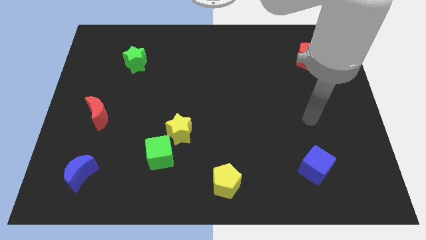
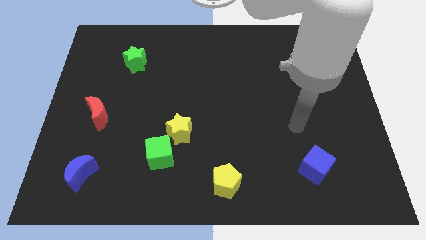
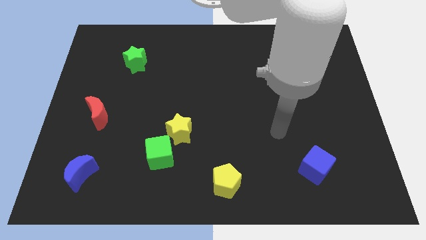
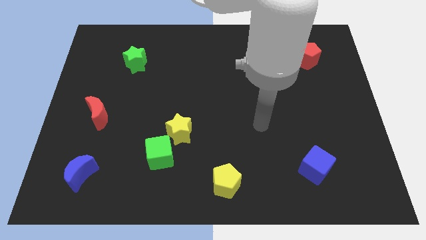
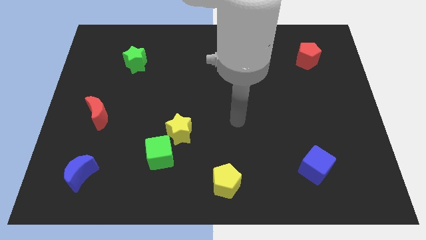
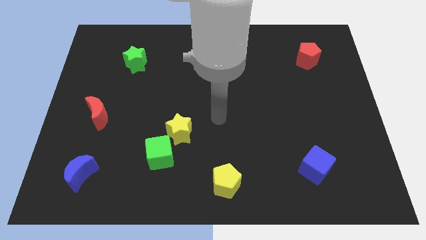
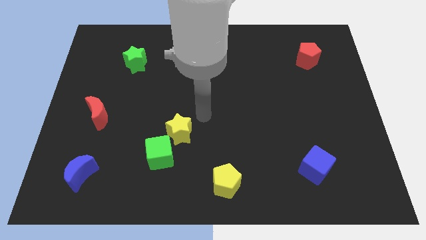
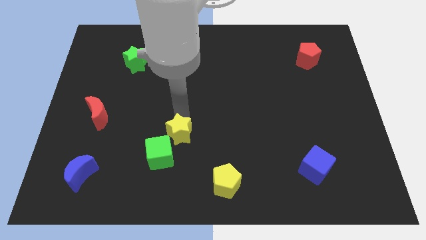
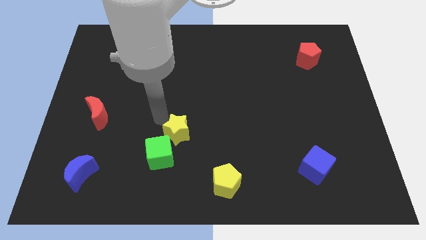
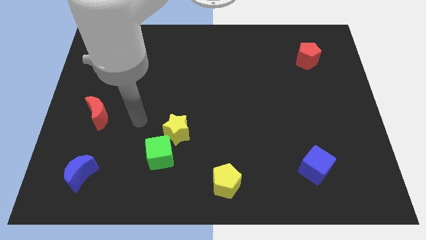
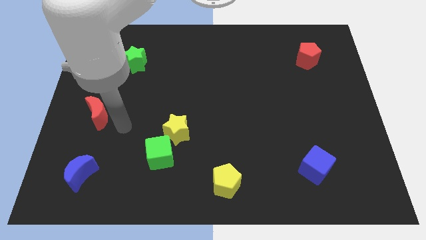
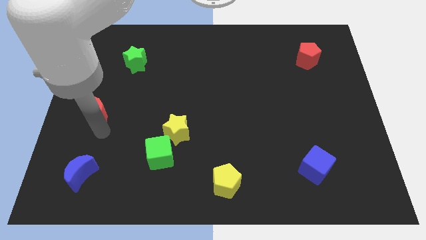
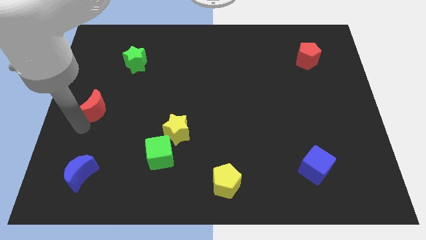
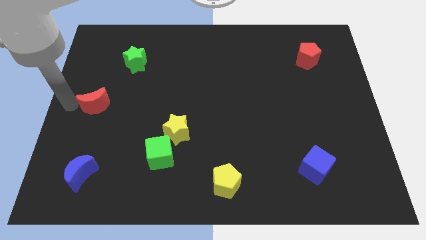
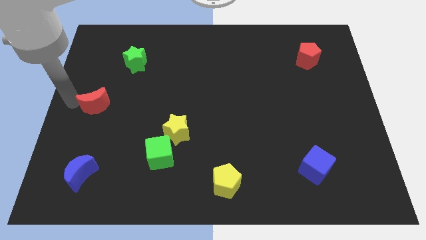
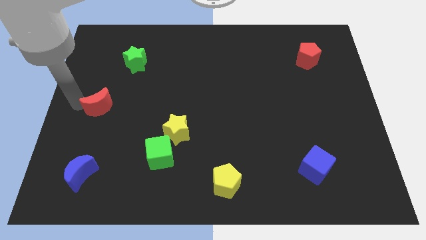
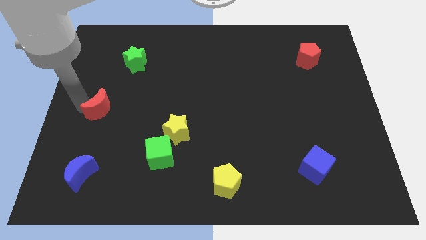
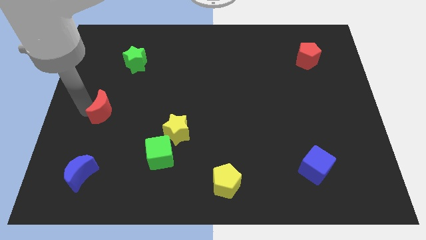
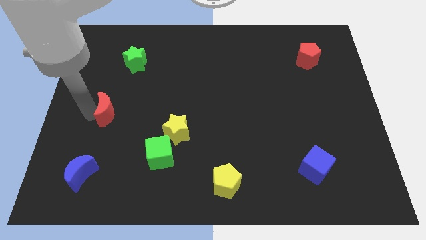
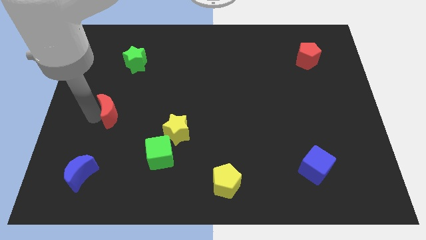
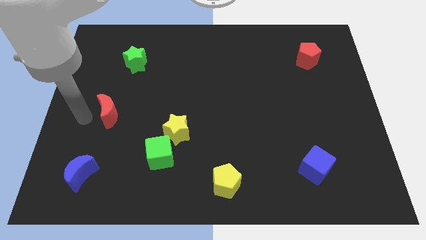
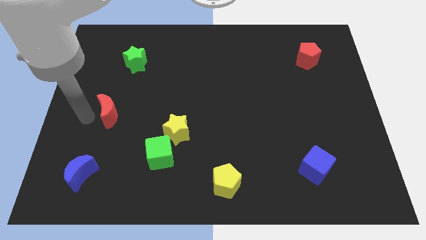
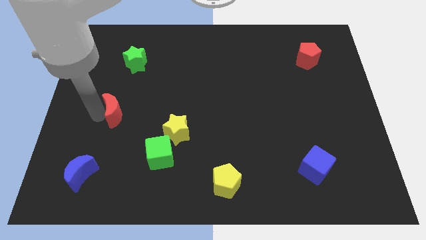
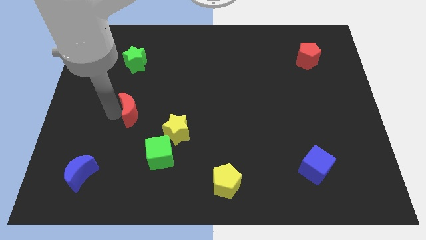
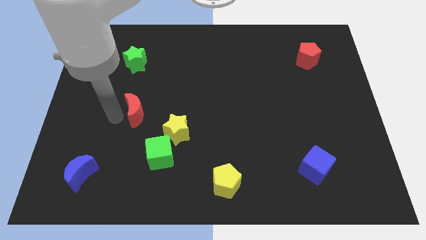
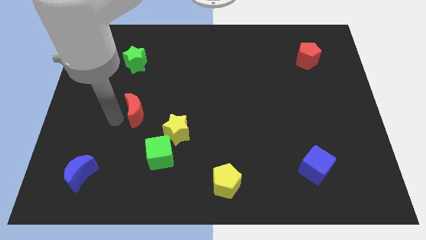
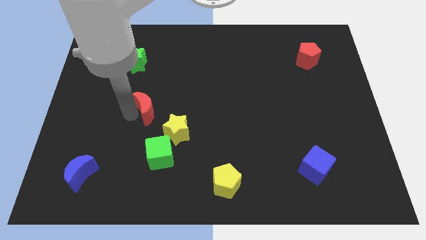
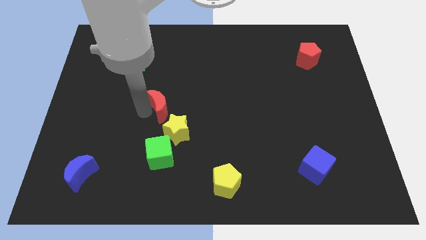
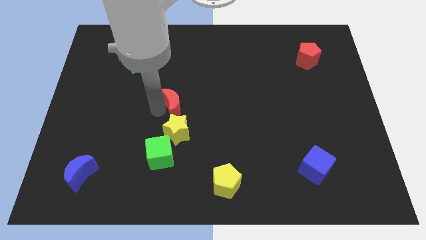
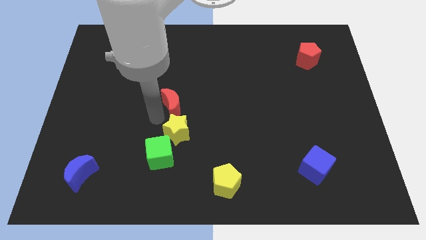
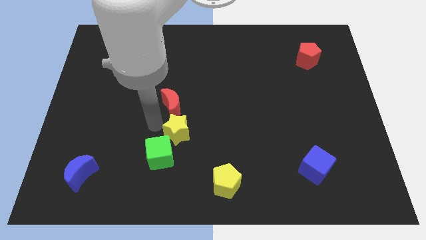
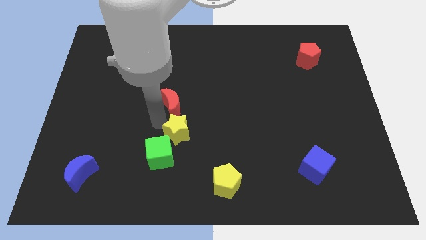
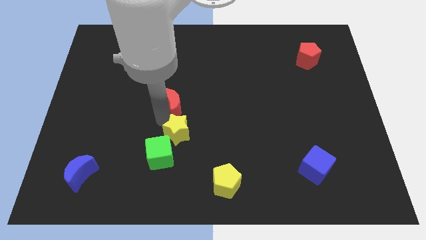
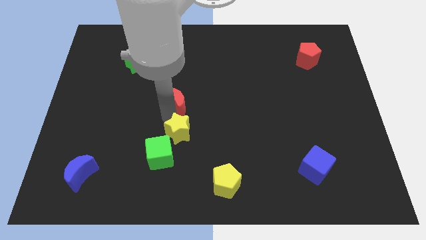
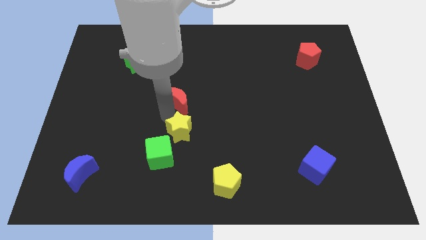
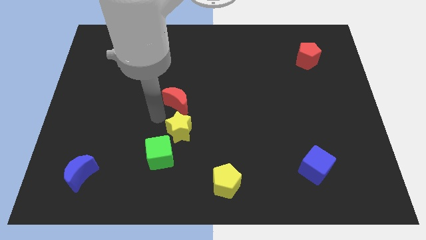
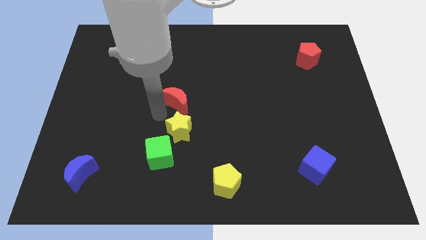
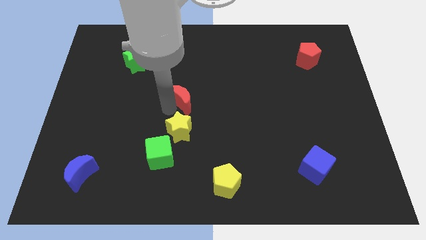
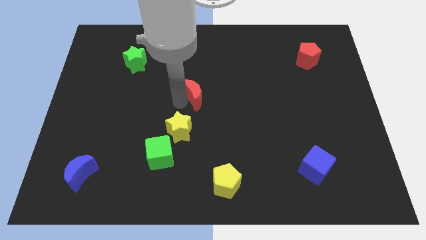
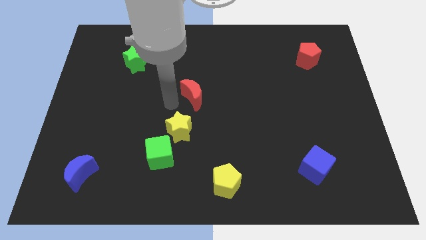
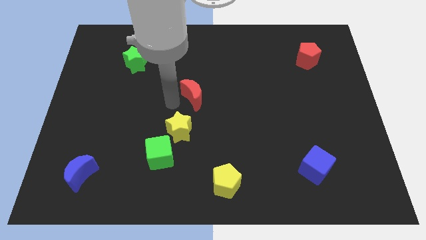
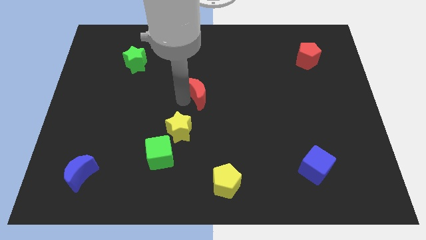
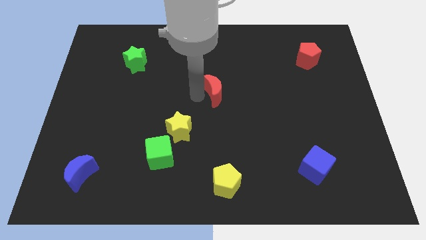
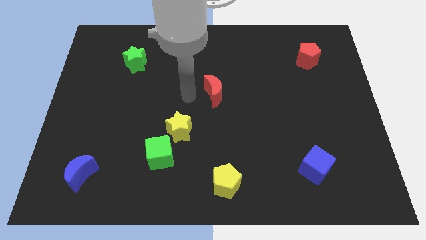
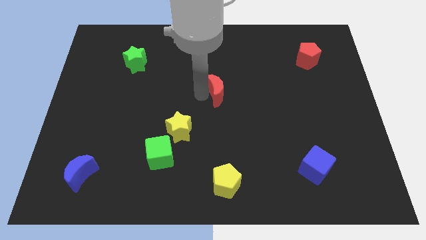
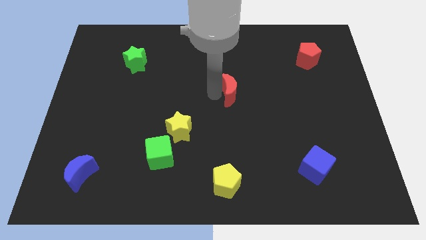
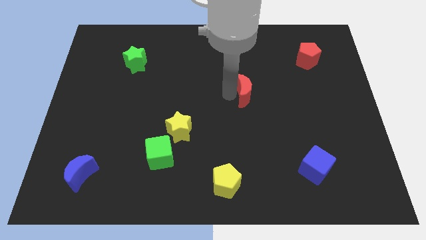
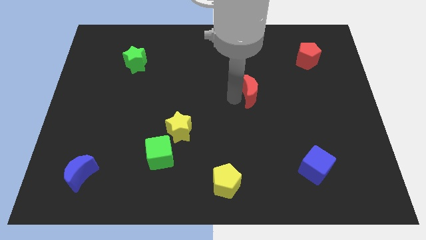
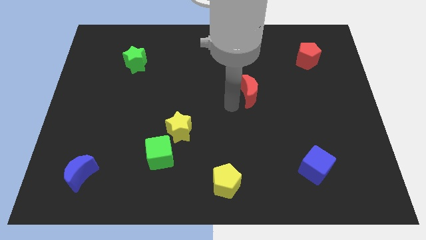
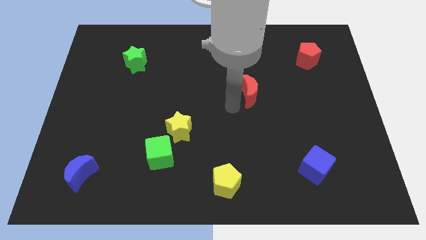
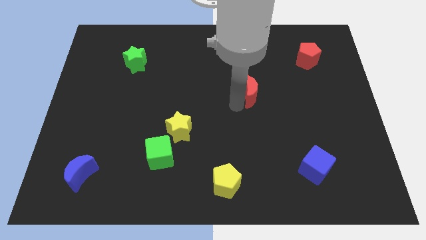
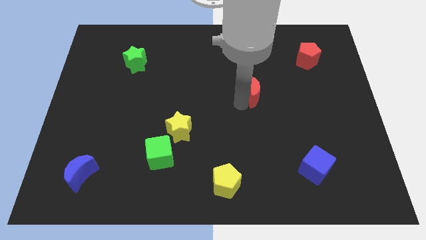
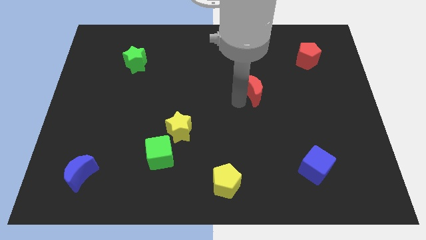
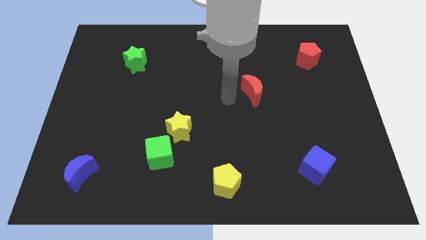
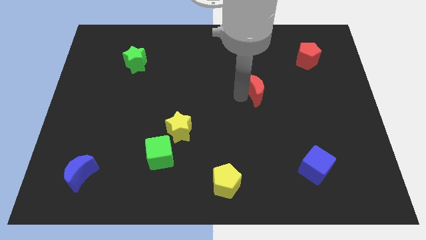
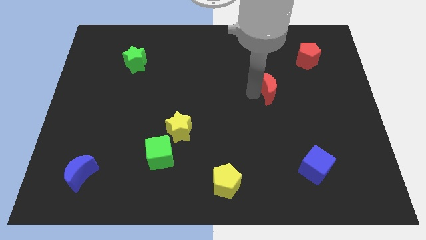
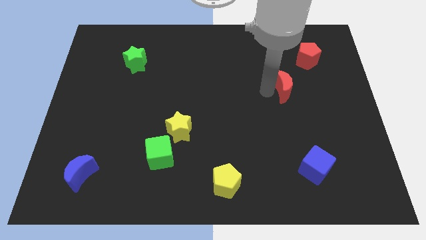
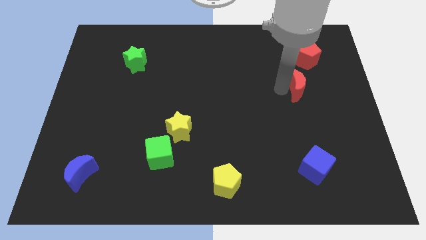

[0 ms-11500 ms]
slide the red moon to the bottom of the red pentagon

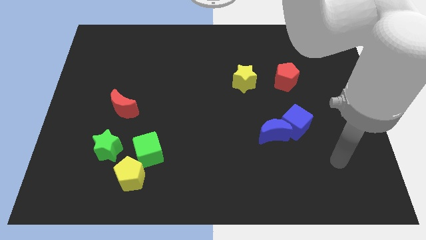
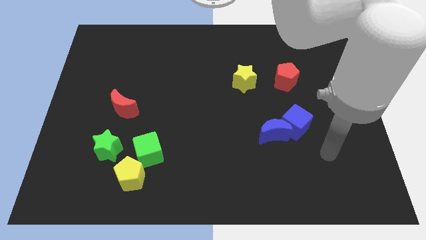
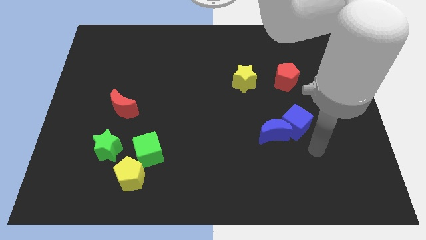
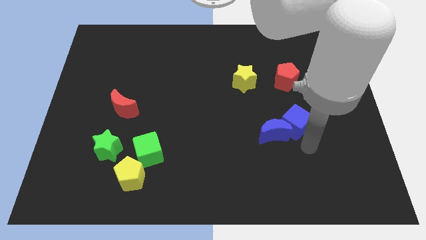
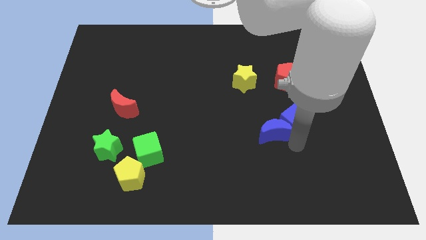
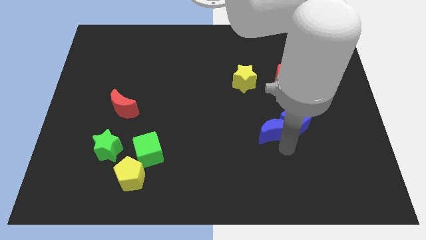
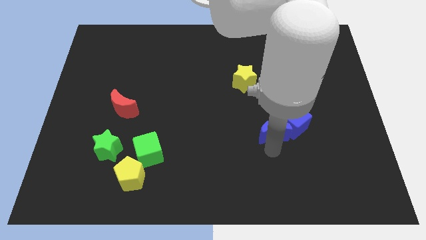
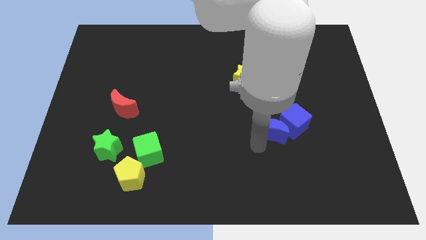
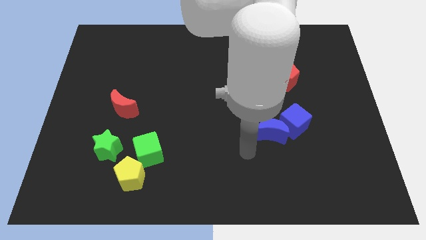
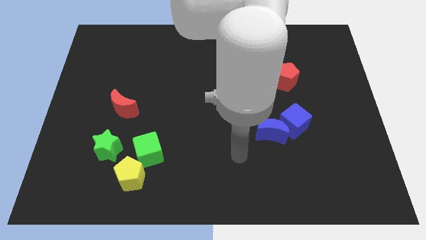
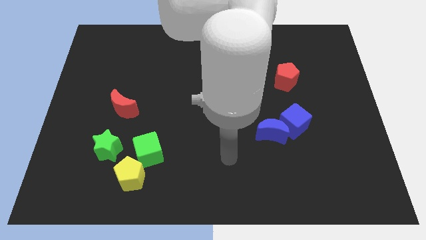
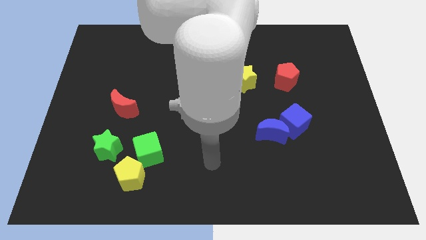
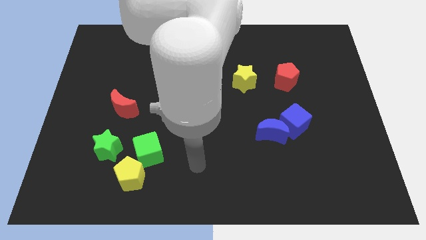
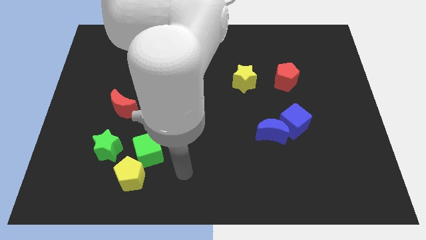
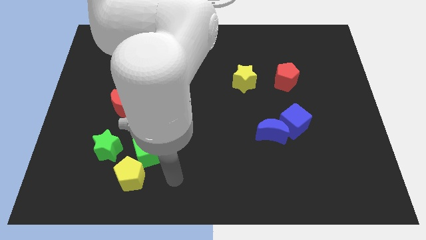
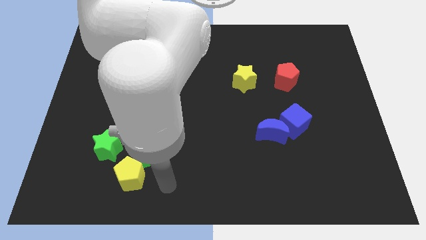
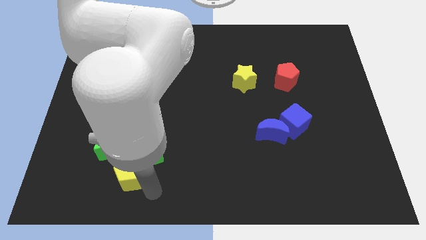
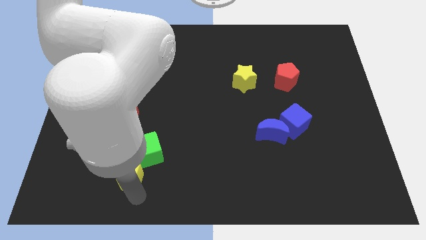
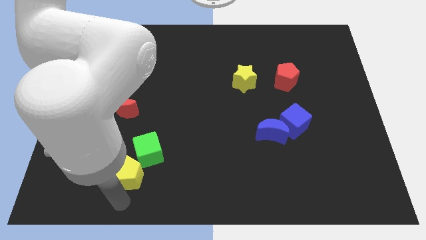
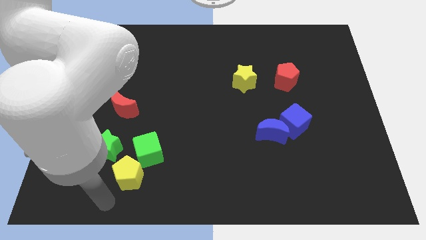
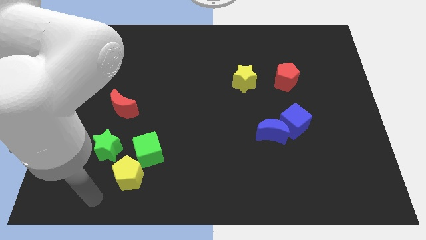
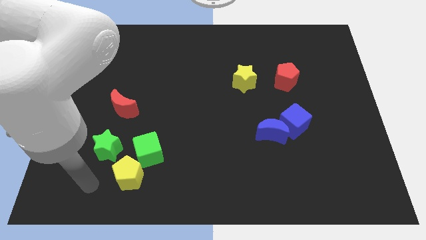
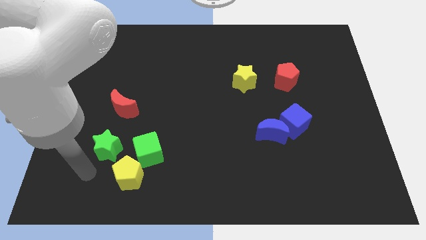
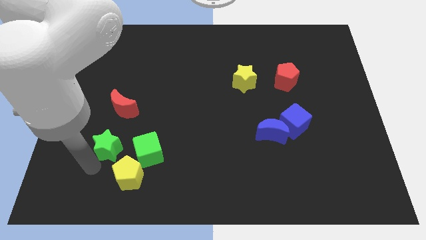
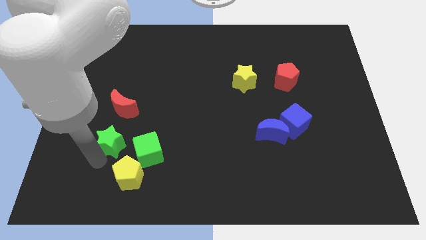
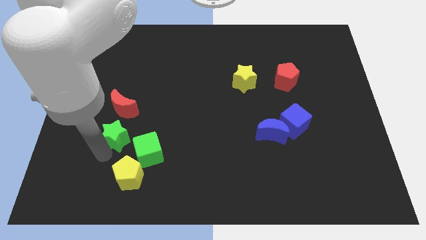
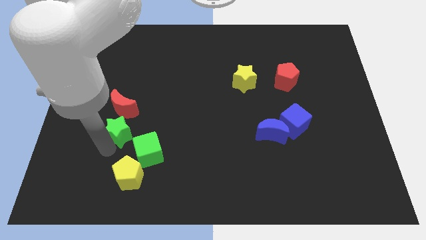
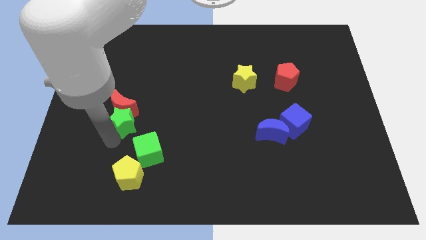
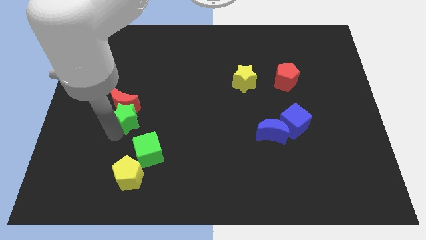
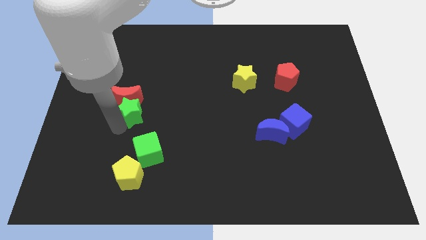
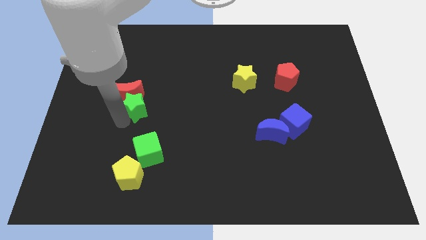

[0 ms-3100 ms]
put the green star to the top of the green cube
